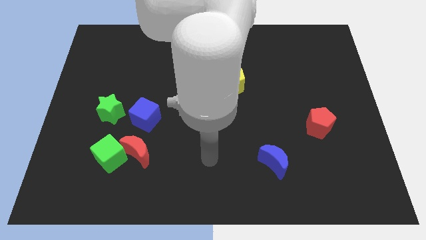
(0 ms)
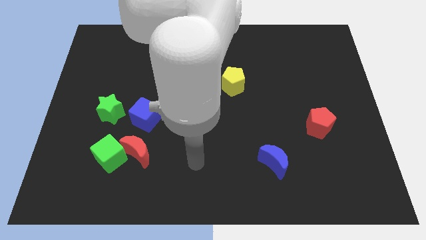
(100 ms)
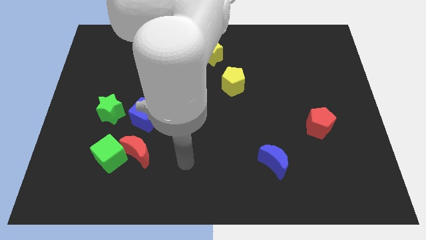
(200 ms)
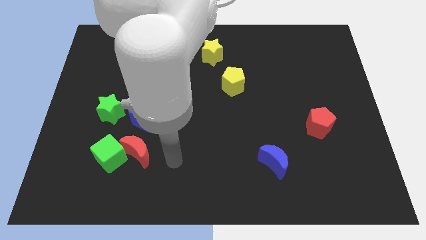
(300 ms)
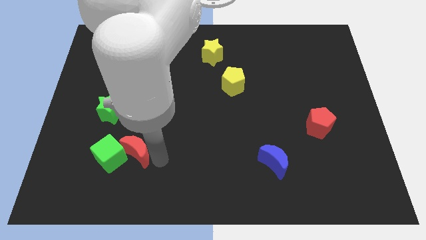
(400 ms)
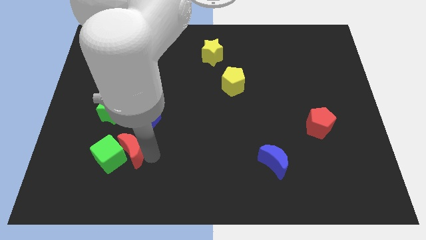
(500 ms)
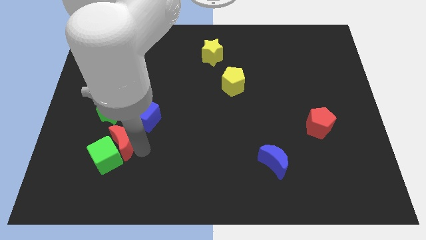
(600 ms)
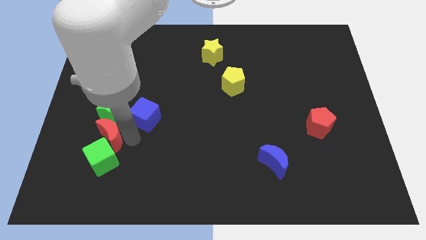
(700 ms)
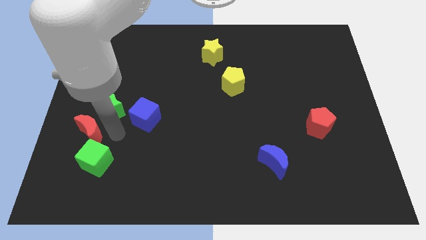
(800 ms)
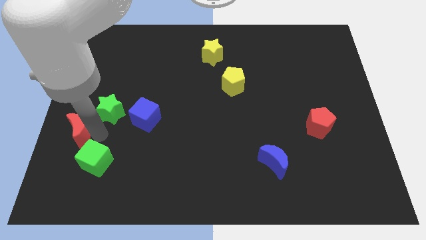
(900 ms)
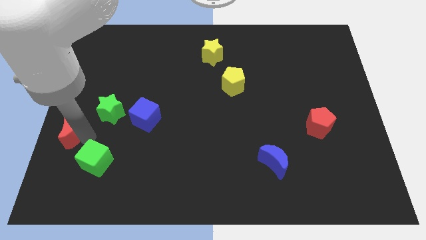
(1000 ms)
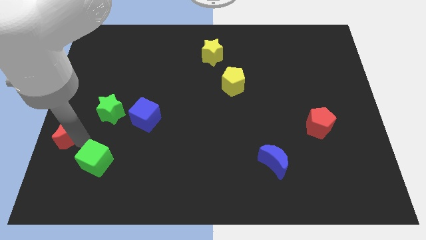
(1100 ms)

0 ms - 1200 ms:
move the green cube away from the red moon

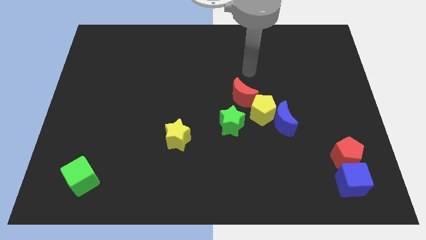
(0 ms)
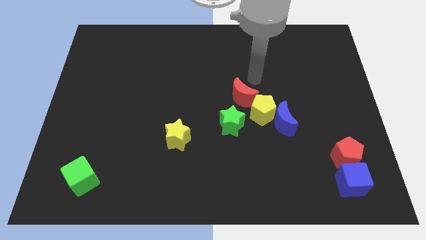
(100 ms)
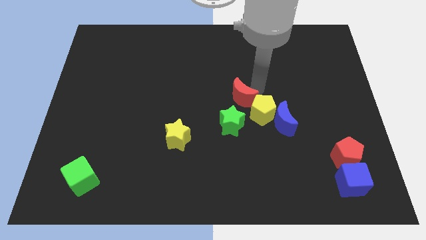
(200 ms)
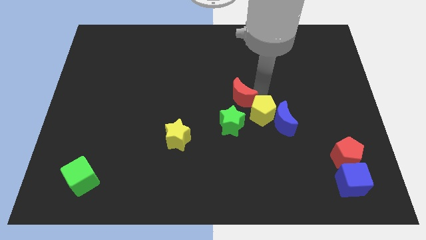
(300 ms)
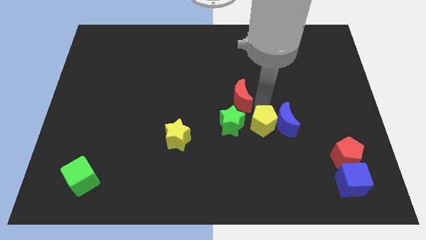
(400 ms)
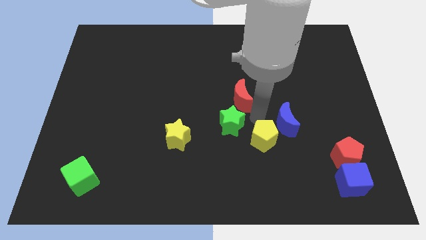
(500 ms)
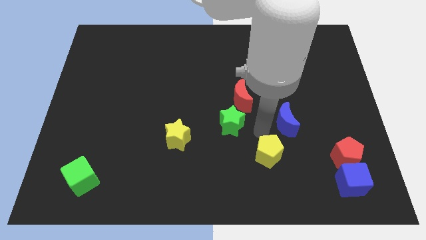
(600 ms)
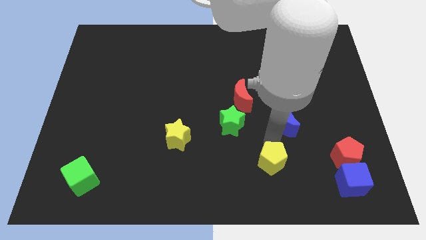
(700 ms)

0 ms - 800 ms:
pull the blue moon apart from the yellow pentagon

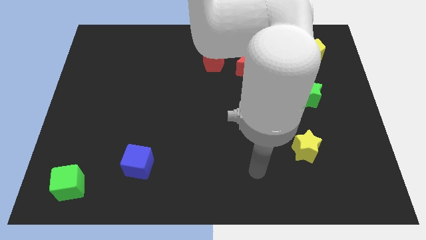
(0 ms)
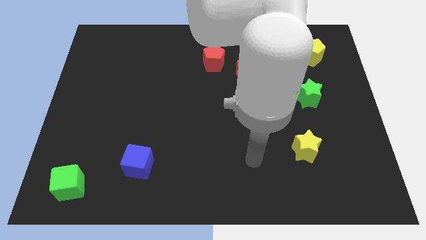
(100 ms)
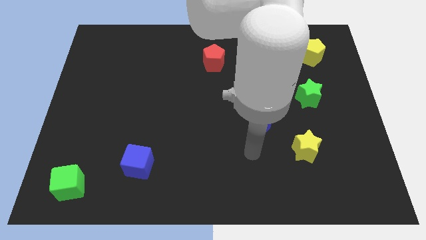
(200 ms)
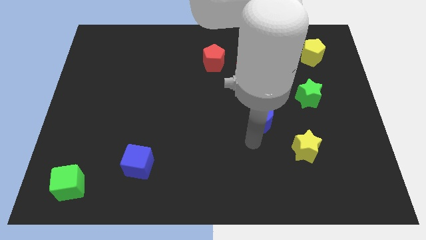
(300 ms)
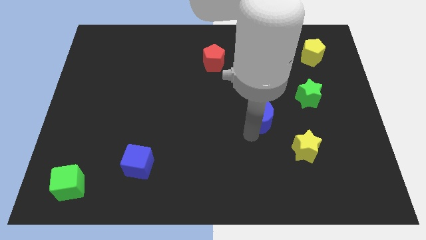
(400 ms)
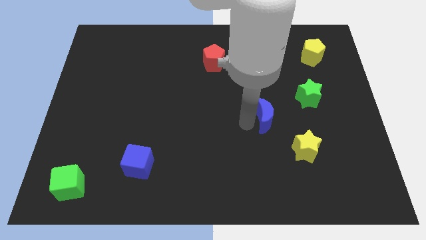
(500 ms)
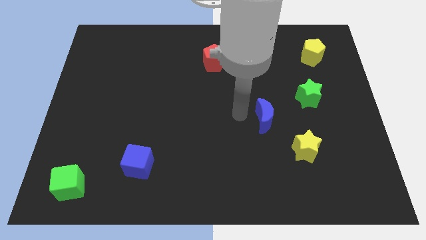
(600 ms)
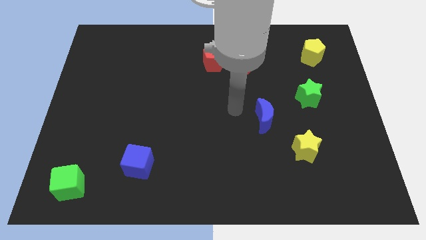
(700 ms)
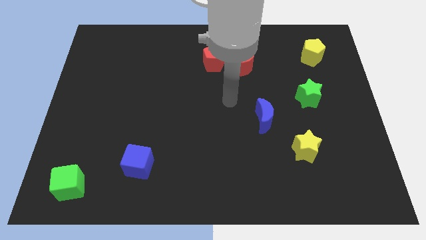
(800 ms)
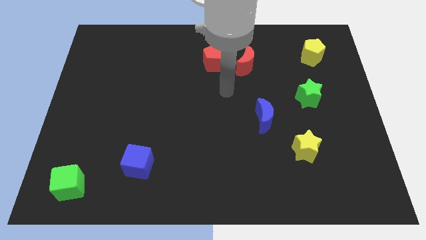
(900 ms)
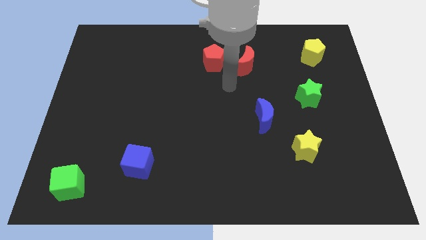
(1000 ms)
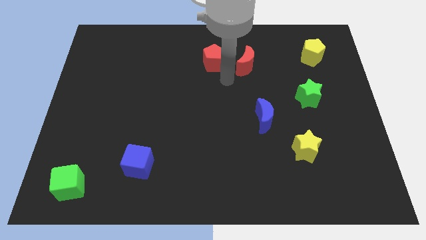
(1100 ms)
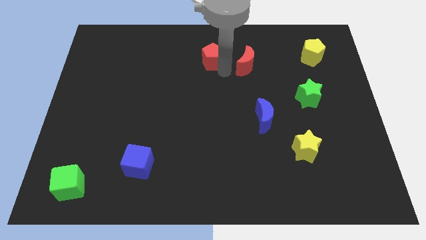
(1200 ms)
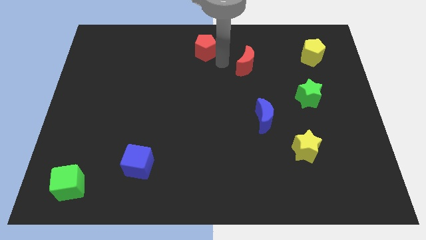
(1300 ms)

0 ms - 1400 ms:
separate the red moon from the red pentagon

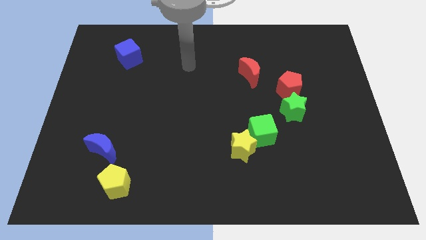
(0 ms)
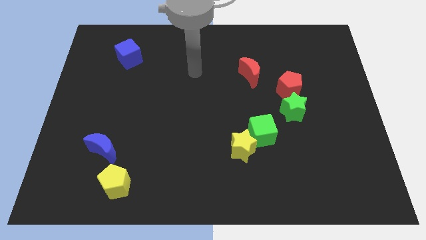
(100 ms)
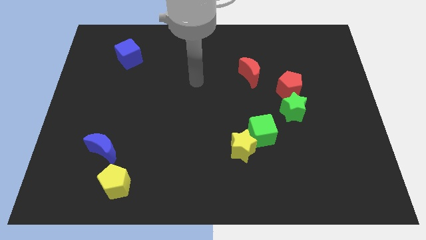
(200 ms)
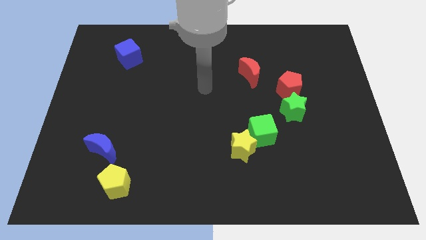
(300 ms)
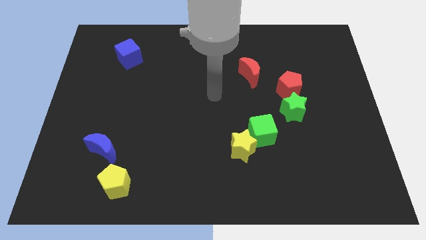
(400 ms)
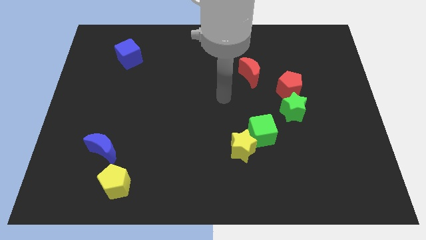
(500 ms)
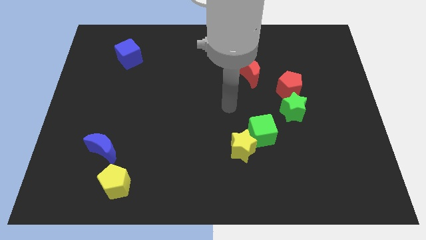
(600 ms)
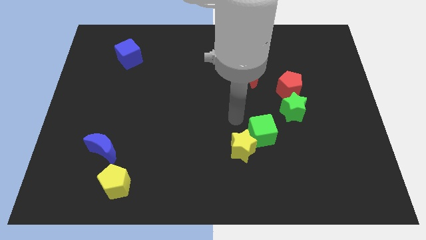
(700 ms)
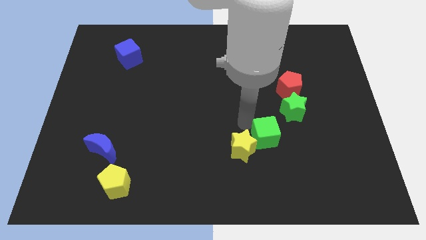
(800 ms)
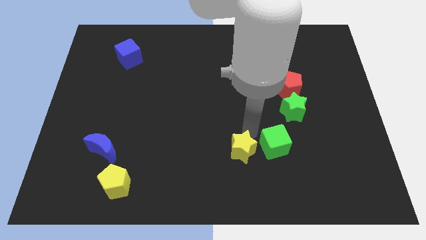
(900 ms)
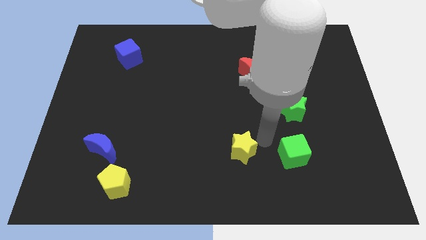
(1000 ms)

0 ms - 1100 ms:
pull the yellow star apart from the green cube

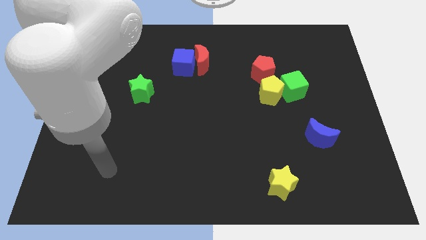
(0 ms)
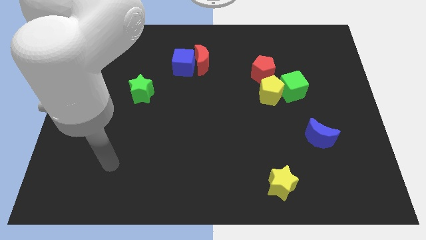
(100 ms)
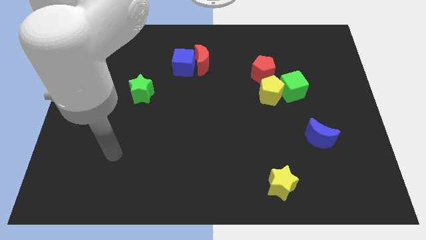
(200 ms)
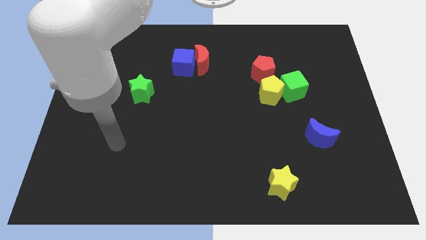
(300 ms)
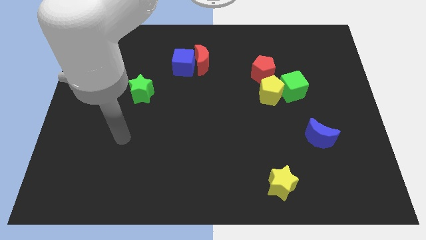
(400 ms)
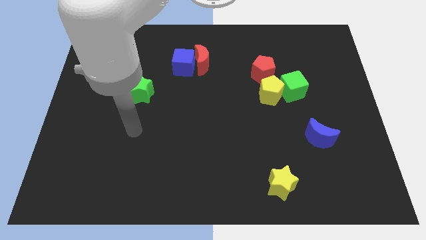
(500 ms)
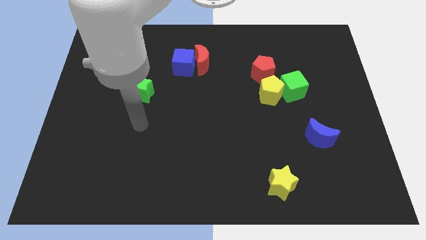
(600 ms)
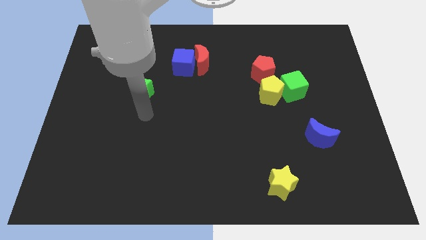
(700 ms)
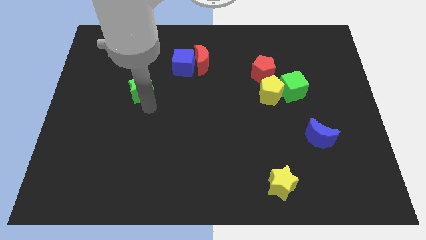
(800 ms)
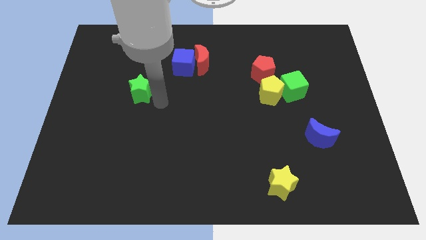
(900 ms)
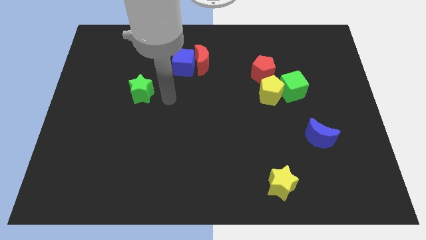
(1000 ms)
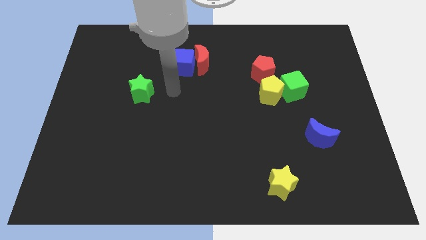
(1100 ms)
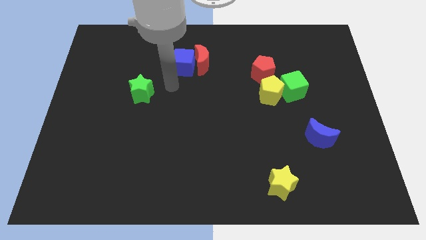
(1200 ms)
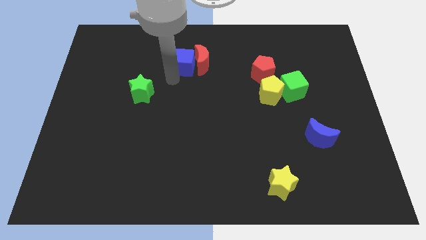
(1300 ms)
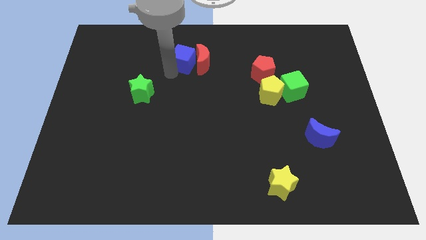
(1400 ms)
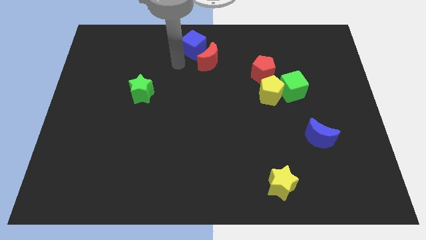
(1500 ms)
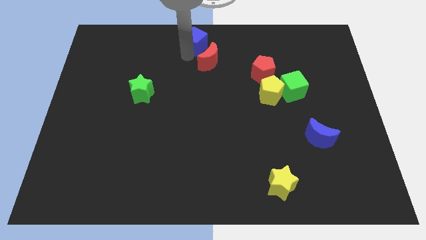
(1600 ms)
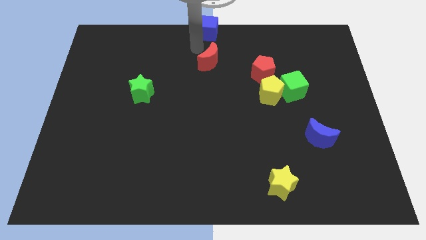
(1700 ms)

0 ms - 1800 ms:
move the red moon away from the blue cube

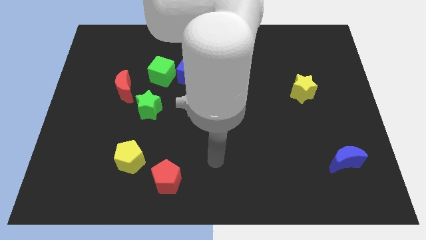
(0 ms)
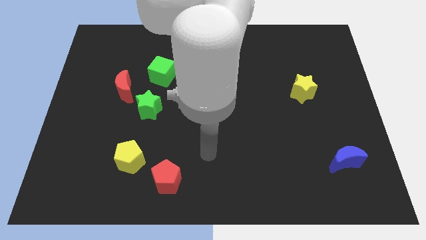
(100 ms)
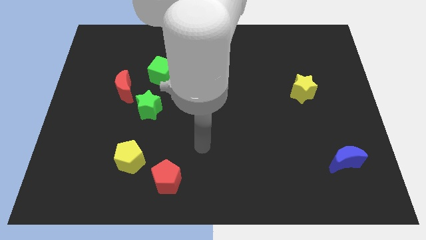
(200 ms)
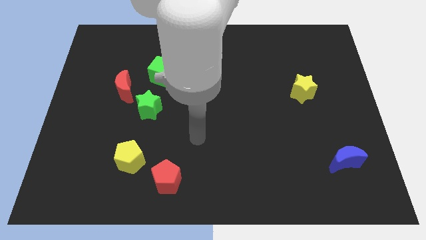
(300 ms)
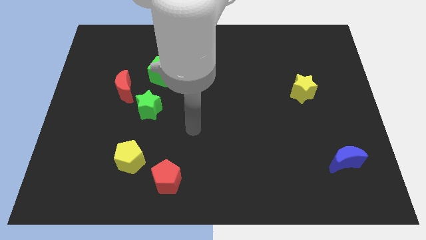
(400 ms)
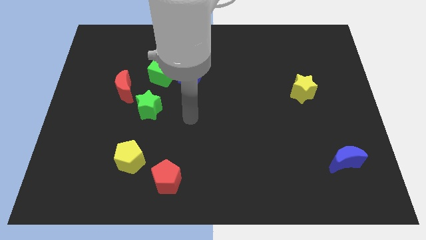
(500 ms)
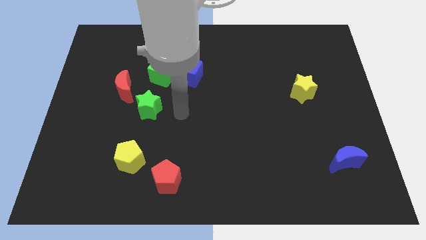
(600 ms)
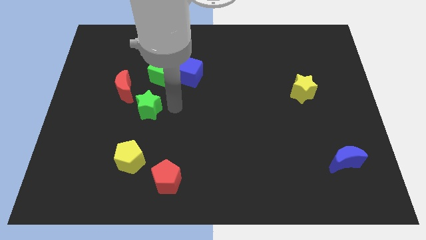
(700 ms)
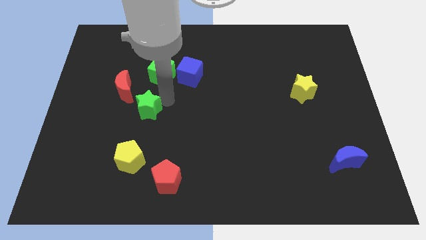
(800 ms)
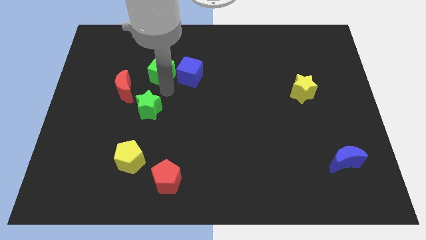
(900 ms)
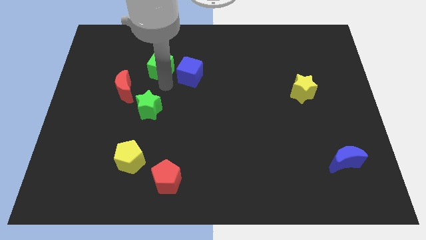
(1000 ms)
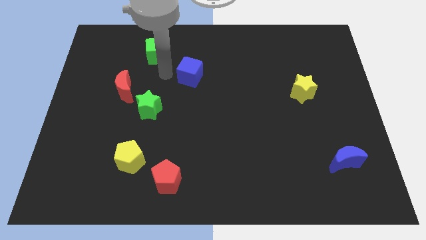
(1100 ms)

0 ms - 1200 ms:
separate the blue cube from the green cube

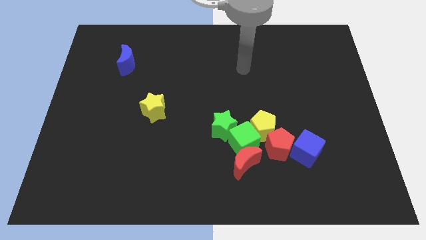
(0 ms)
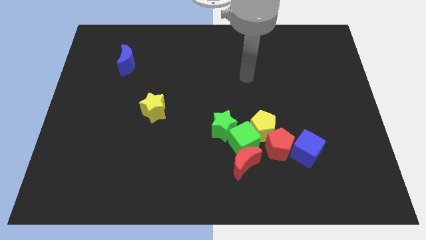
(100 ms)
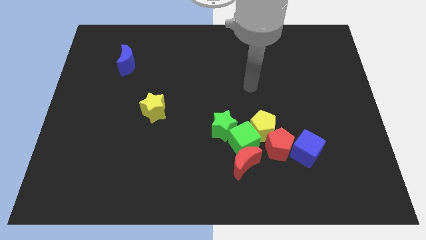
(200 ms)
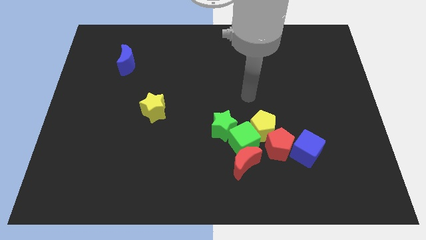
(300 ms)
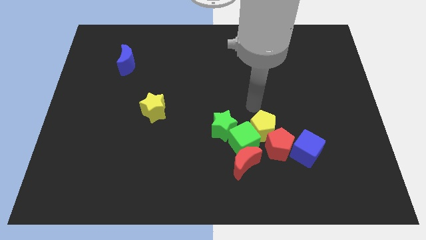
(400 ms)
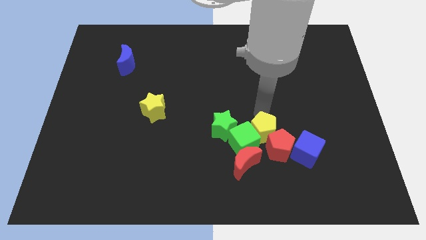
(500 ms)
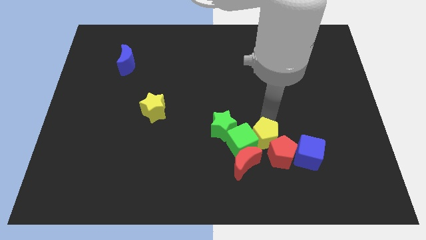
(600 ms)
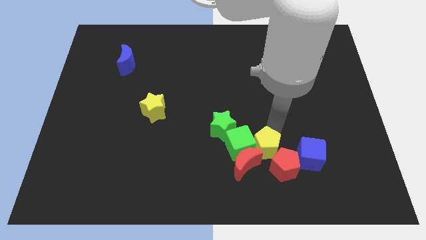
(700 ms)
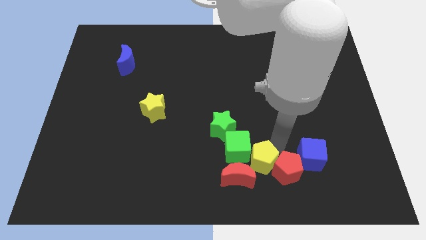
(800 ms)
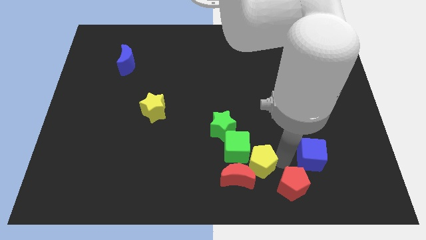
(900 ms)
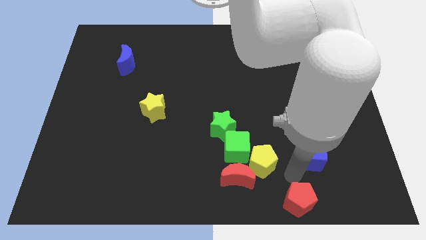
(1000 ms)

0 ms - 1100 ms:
pull the blue cube apart from the red pentagon

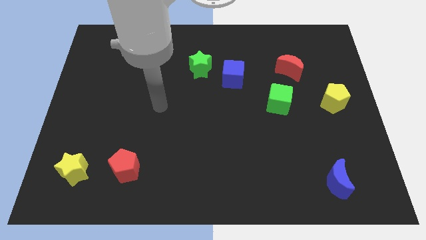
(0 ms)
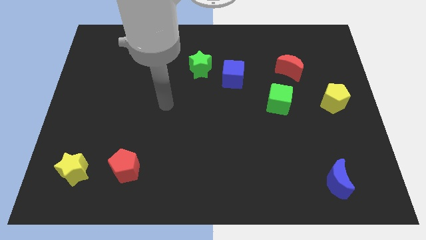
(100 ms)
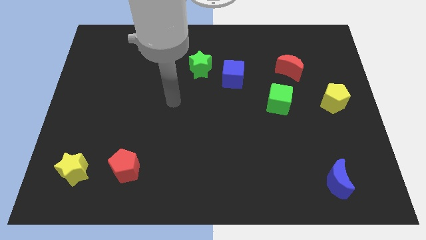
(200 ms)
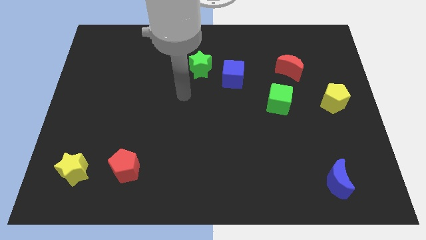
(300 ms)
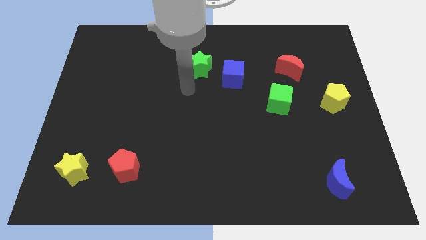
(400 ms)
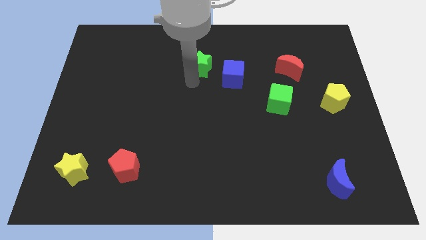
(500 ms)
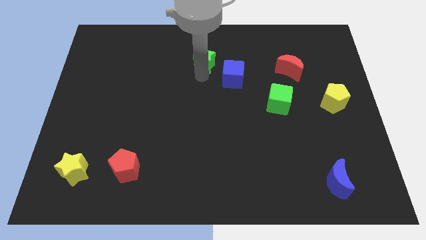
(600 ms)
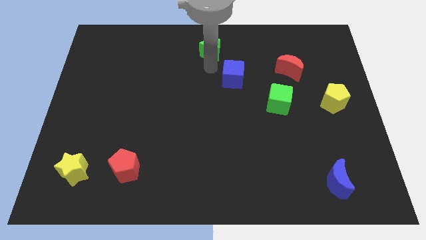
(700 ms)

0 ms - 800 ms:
pull the blue cube apart from the green star

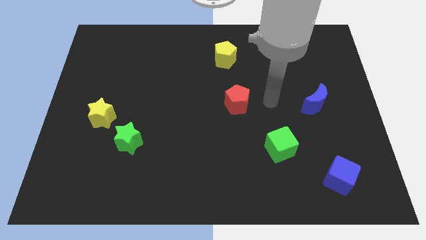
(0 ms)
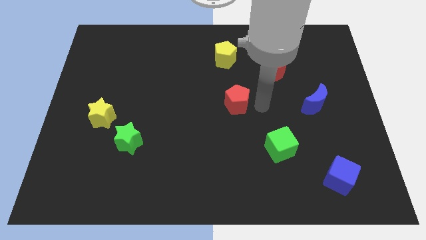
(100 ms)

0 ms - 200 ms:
separate the green star from the yellow star
